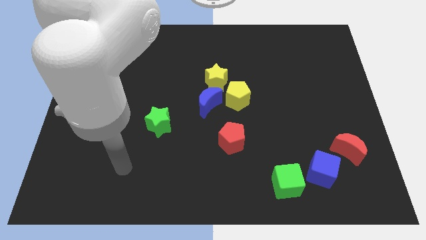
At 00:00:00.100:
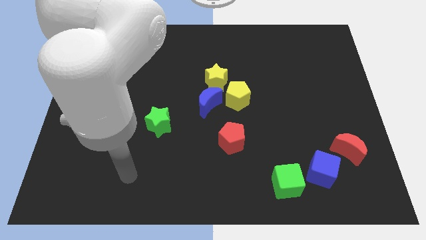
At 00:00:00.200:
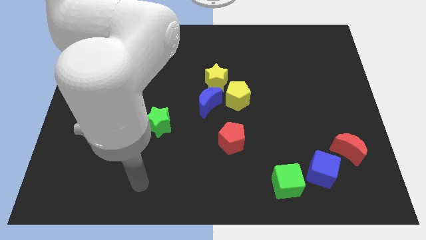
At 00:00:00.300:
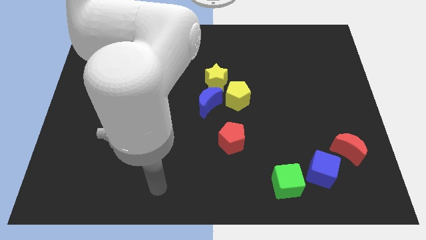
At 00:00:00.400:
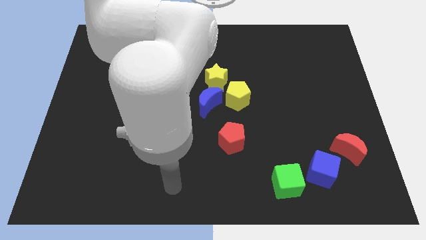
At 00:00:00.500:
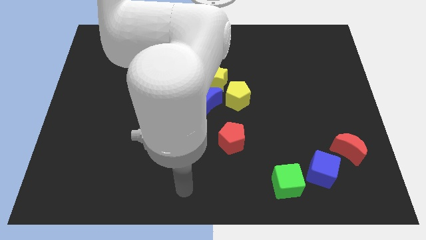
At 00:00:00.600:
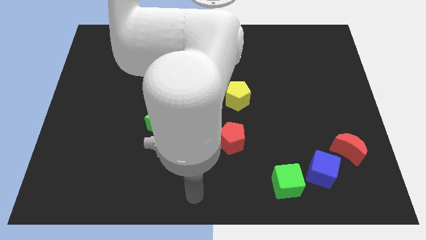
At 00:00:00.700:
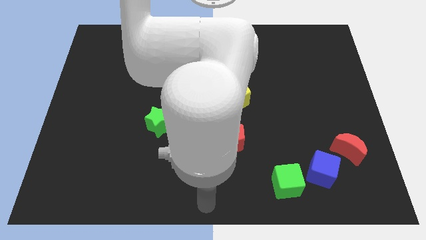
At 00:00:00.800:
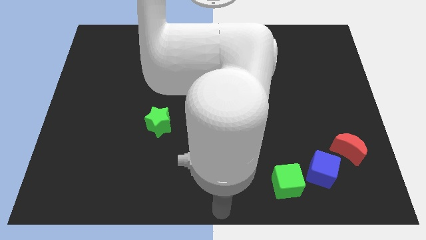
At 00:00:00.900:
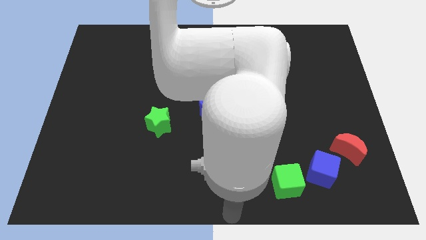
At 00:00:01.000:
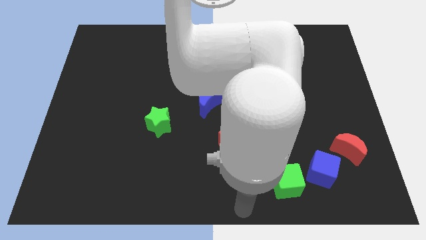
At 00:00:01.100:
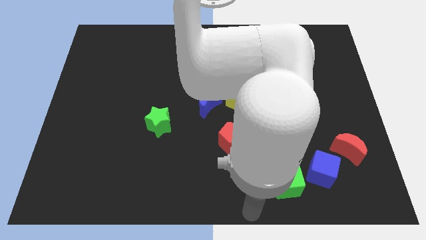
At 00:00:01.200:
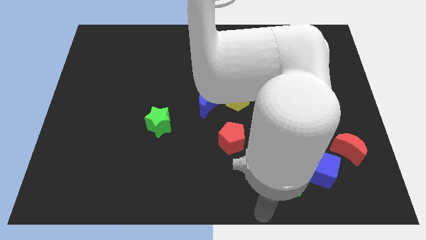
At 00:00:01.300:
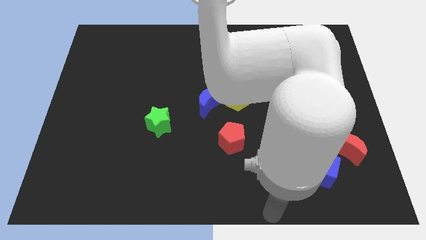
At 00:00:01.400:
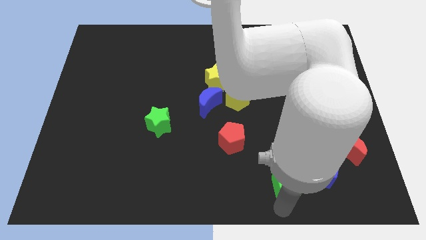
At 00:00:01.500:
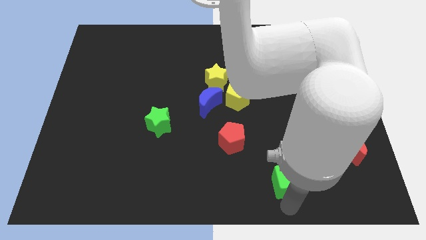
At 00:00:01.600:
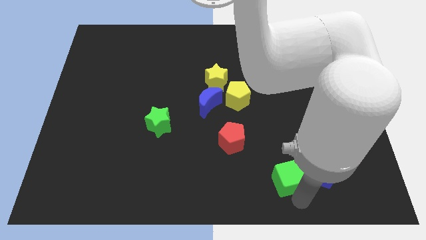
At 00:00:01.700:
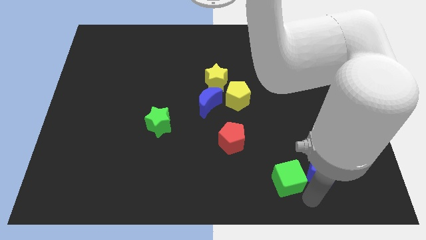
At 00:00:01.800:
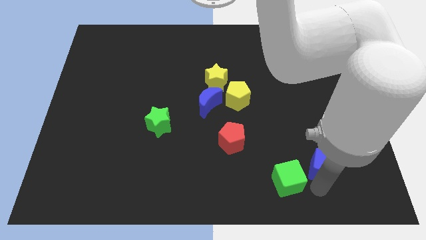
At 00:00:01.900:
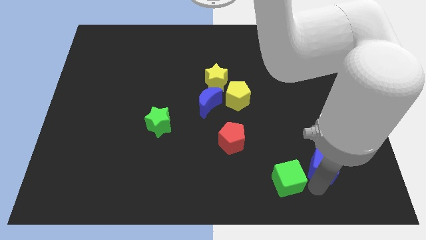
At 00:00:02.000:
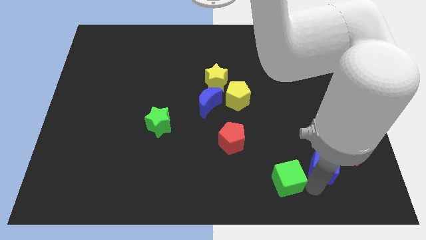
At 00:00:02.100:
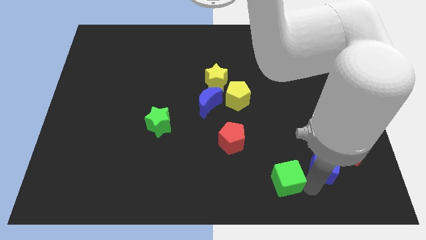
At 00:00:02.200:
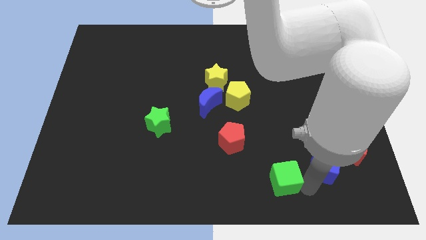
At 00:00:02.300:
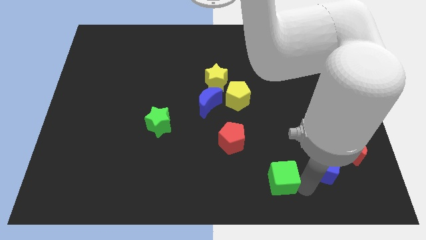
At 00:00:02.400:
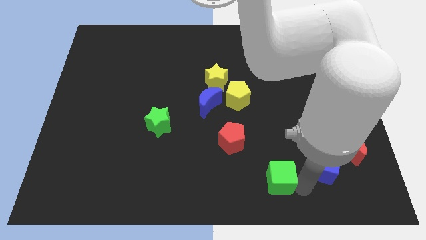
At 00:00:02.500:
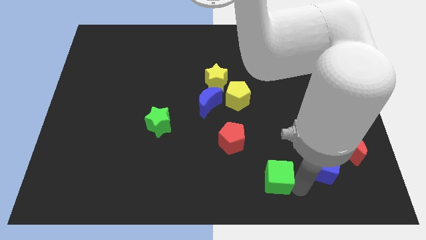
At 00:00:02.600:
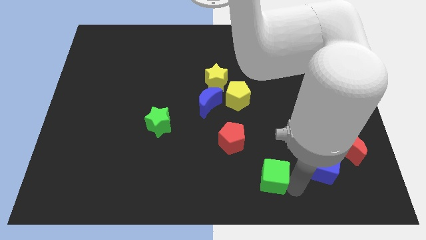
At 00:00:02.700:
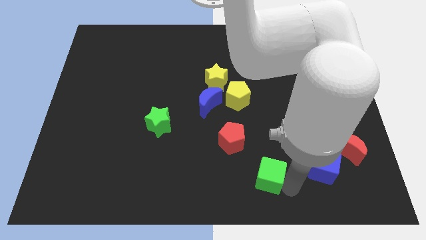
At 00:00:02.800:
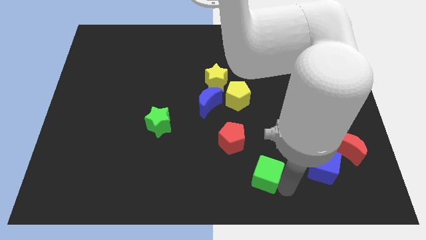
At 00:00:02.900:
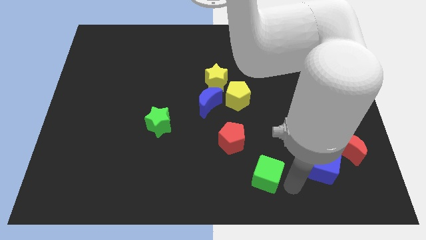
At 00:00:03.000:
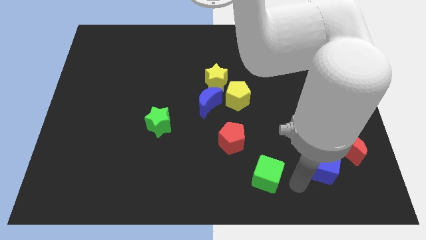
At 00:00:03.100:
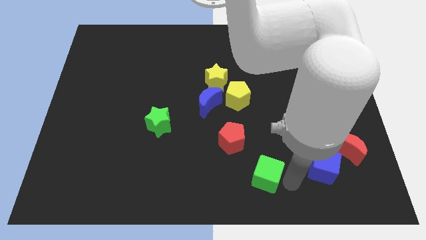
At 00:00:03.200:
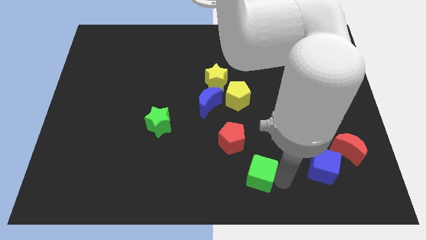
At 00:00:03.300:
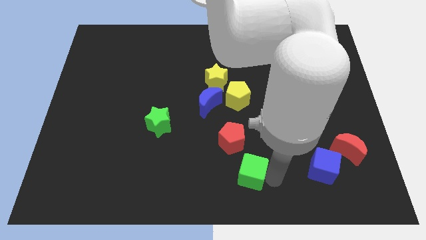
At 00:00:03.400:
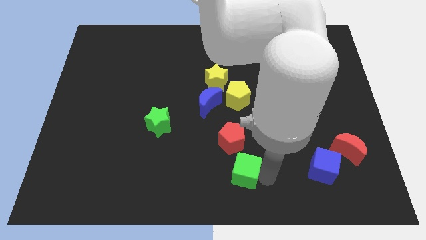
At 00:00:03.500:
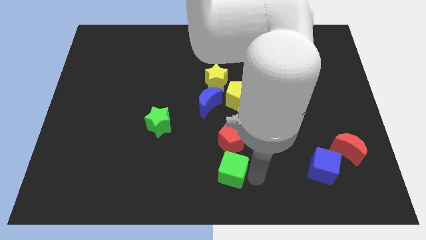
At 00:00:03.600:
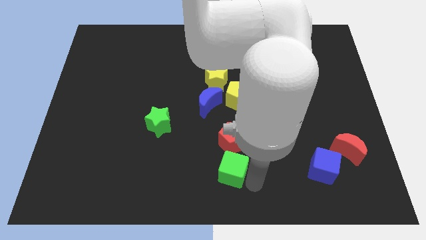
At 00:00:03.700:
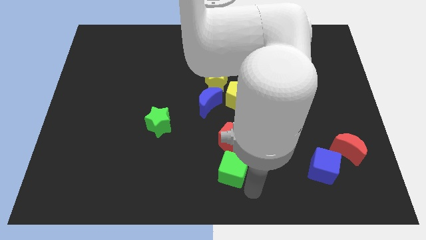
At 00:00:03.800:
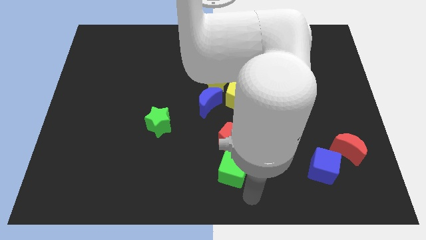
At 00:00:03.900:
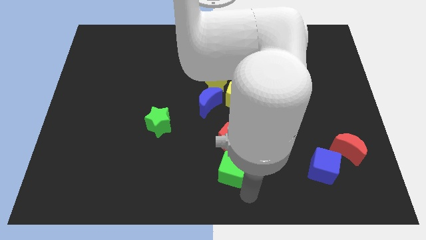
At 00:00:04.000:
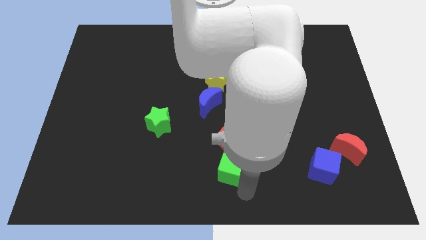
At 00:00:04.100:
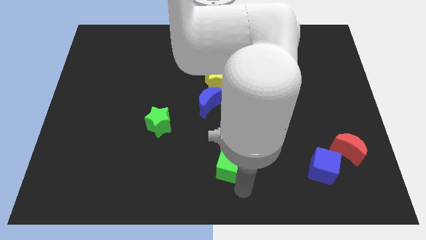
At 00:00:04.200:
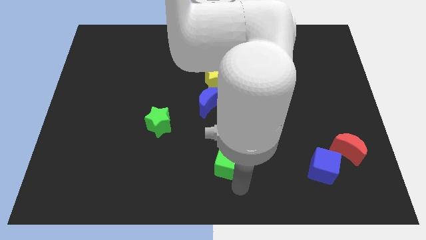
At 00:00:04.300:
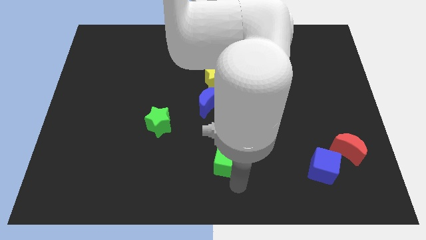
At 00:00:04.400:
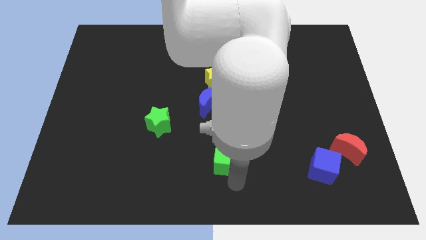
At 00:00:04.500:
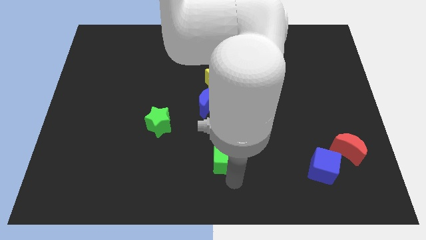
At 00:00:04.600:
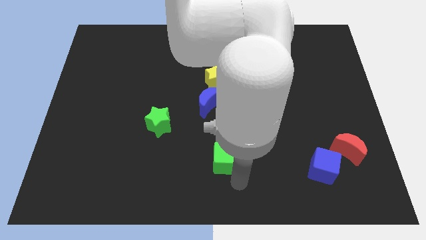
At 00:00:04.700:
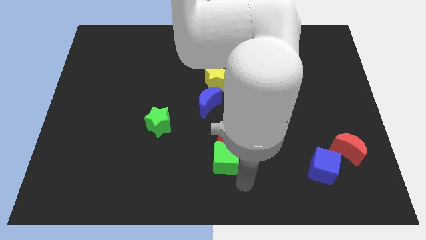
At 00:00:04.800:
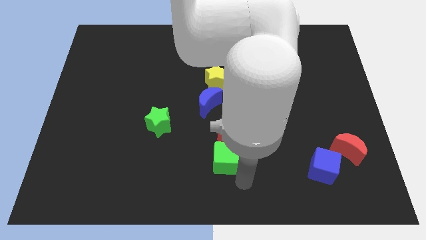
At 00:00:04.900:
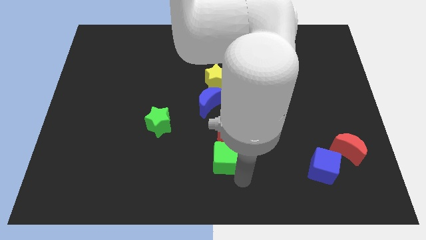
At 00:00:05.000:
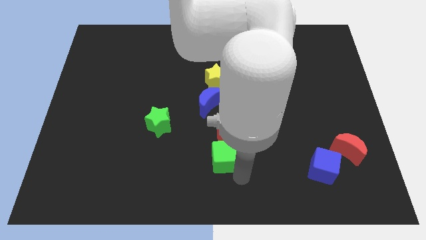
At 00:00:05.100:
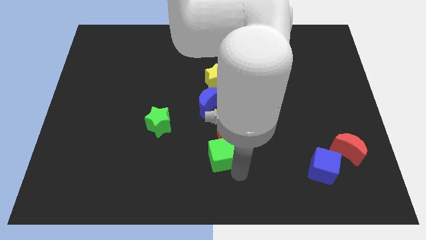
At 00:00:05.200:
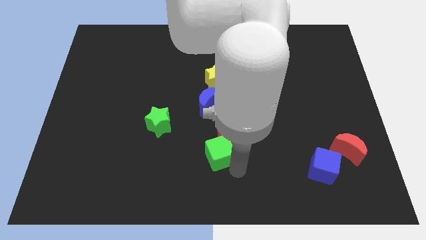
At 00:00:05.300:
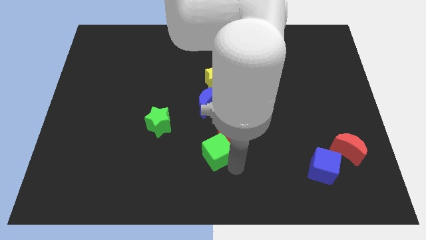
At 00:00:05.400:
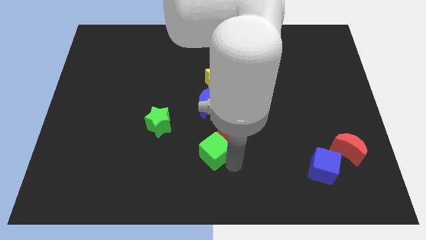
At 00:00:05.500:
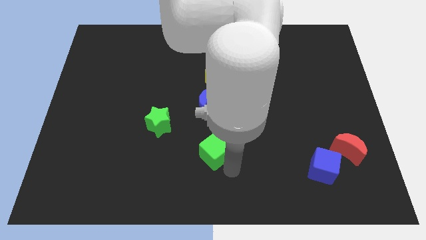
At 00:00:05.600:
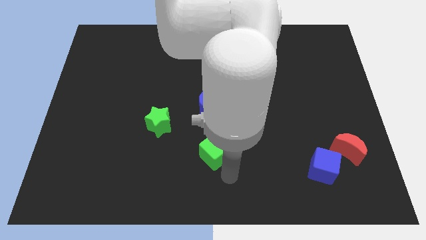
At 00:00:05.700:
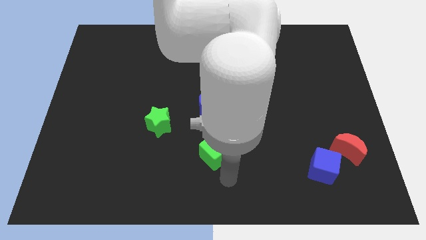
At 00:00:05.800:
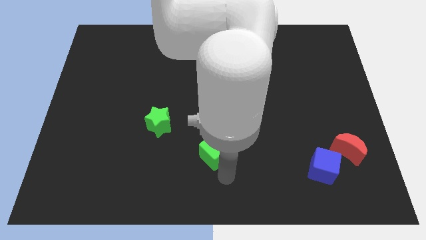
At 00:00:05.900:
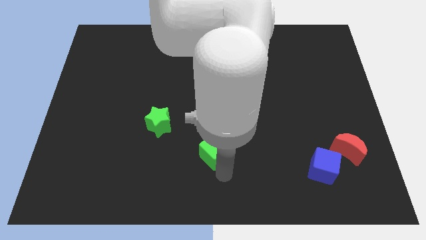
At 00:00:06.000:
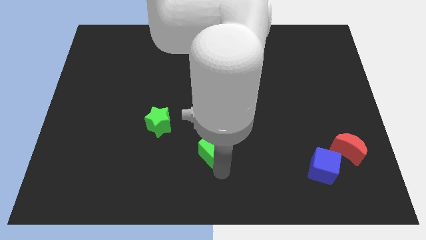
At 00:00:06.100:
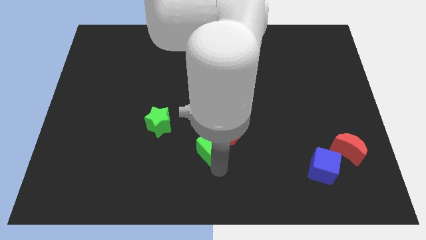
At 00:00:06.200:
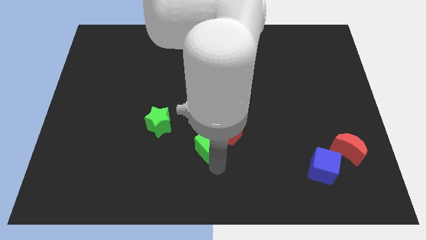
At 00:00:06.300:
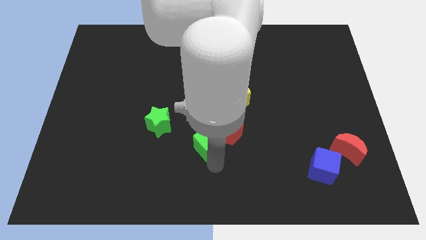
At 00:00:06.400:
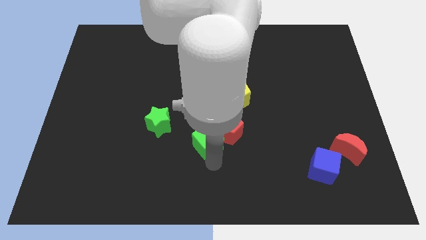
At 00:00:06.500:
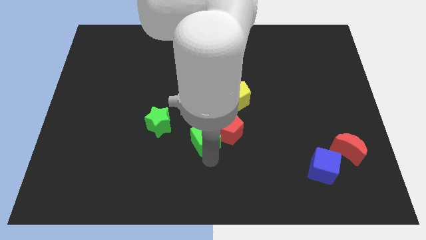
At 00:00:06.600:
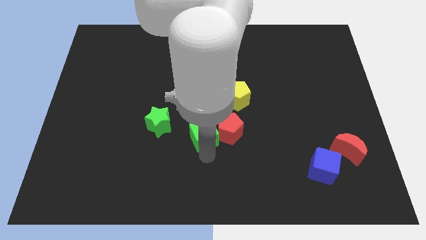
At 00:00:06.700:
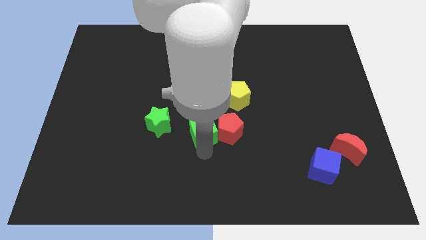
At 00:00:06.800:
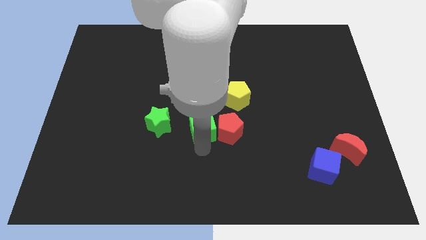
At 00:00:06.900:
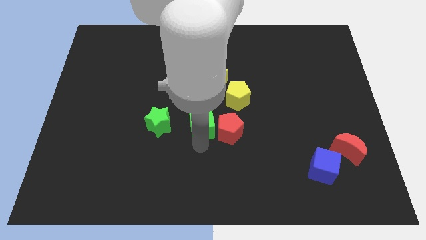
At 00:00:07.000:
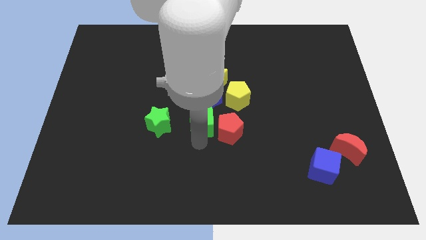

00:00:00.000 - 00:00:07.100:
put the green cube next to the blue moon

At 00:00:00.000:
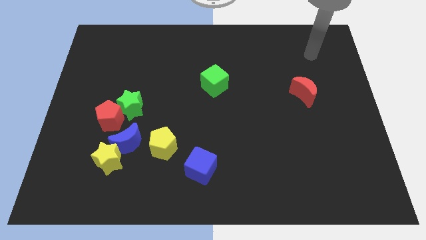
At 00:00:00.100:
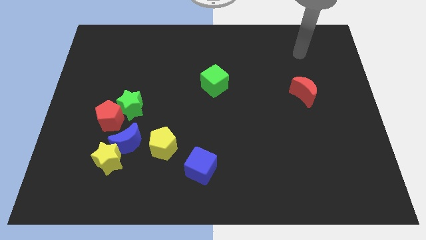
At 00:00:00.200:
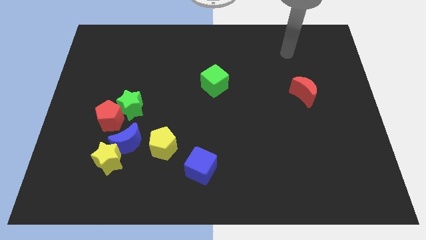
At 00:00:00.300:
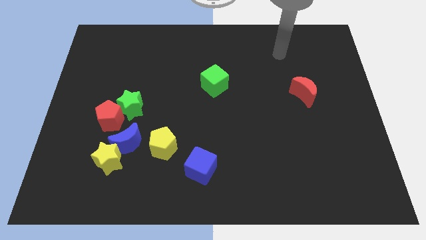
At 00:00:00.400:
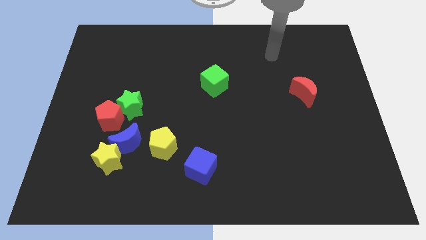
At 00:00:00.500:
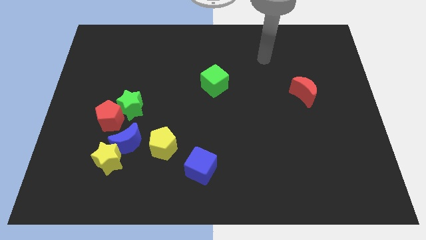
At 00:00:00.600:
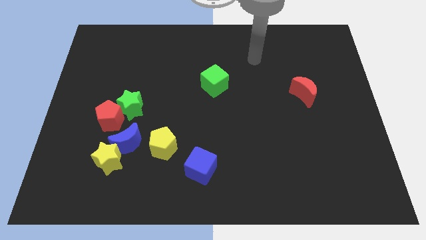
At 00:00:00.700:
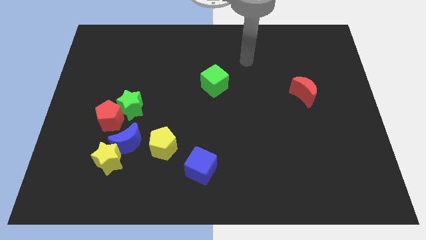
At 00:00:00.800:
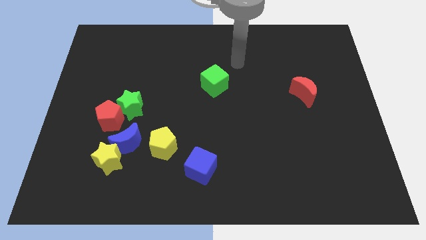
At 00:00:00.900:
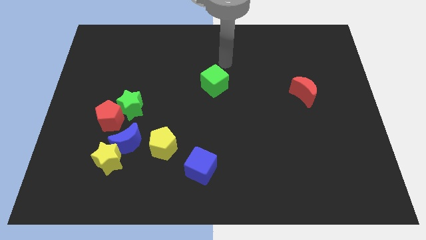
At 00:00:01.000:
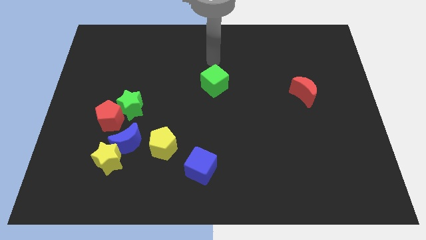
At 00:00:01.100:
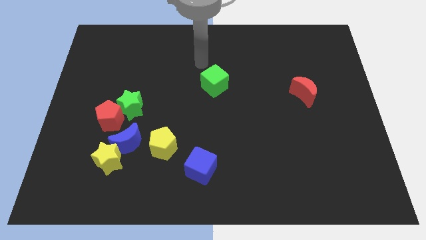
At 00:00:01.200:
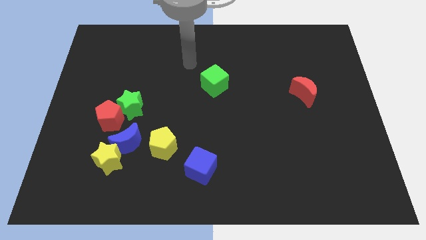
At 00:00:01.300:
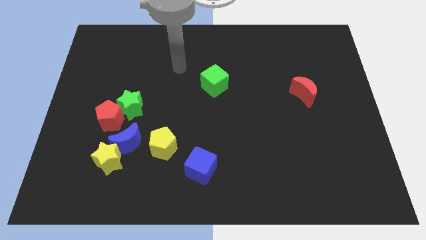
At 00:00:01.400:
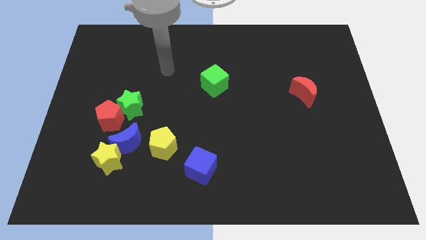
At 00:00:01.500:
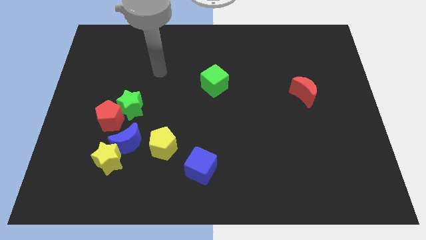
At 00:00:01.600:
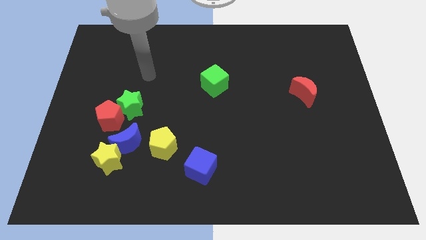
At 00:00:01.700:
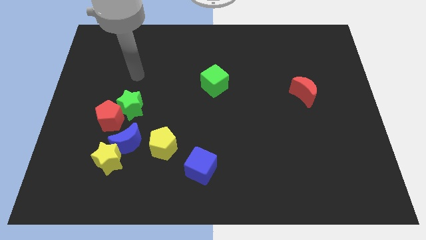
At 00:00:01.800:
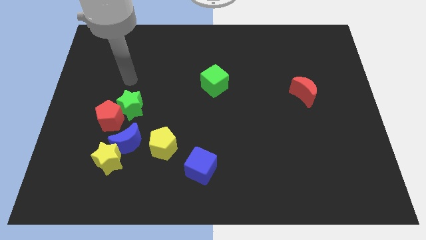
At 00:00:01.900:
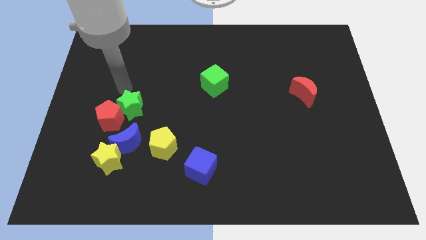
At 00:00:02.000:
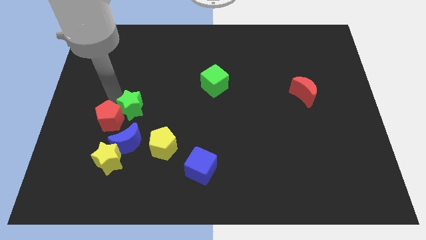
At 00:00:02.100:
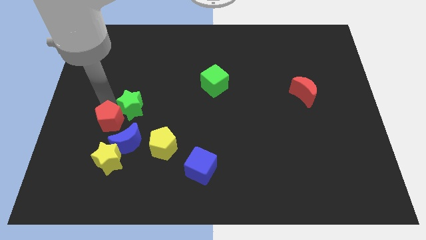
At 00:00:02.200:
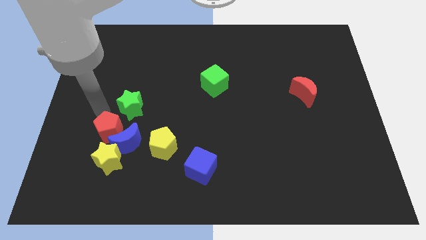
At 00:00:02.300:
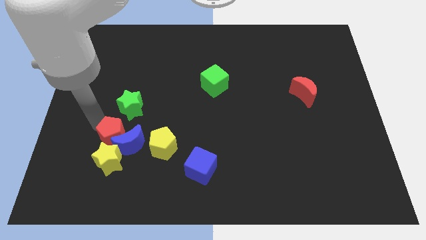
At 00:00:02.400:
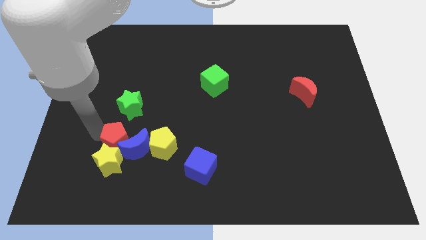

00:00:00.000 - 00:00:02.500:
slide the blue moon to the yellow pentagon
